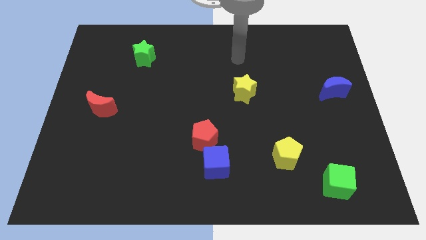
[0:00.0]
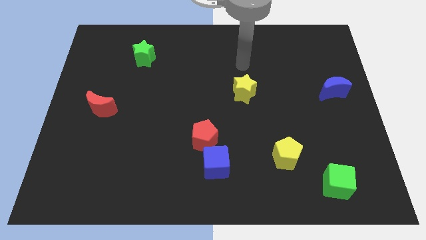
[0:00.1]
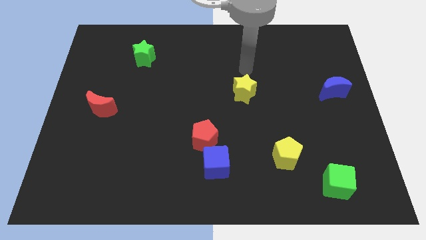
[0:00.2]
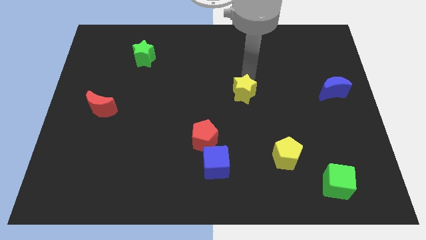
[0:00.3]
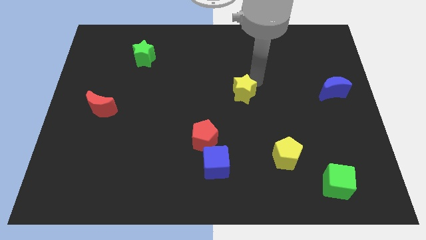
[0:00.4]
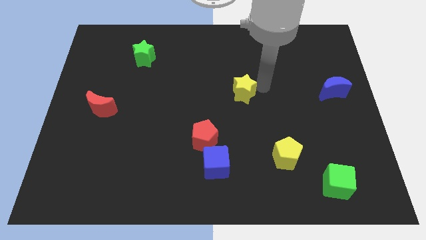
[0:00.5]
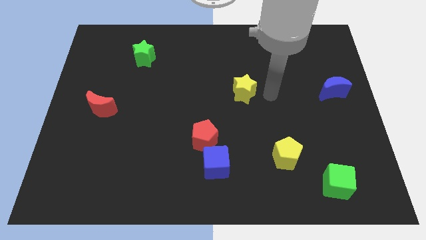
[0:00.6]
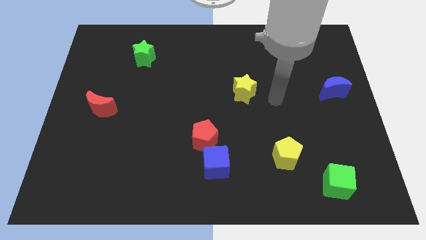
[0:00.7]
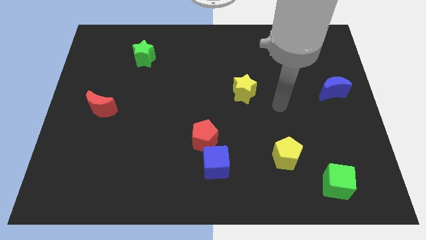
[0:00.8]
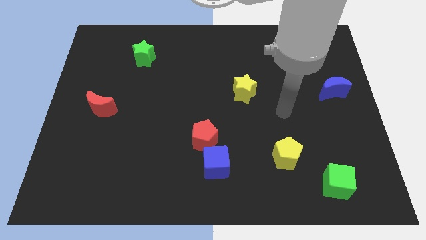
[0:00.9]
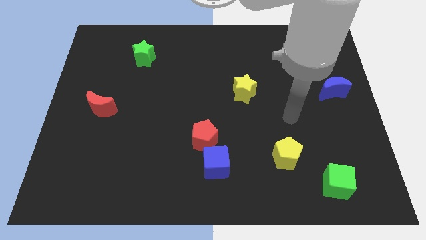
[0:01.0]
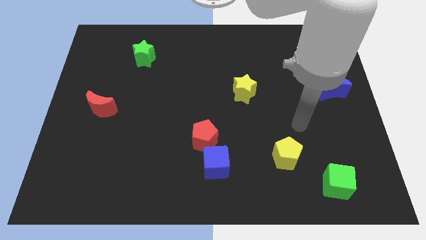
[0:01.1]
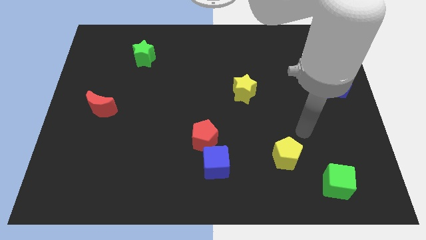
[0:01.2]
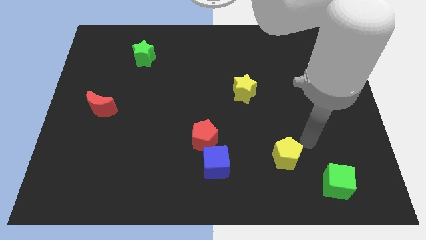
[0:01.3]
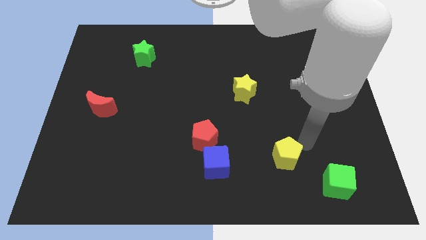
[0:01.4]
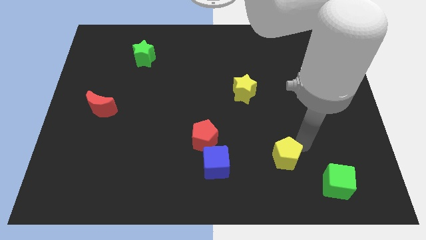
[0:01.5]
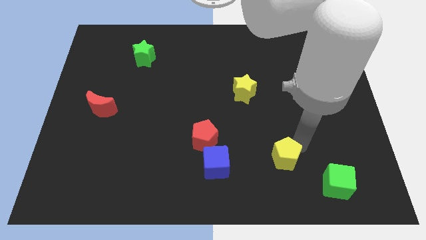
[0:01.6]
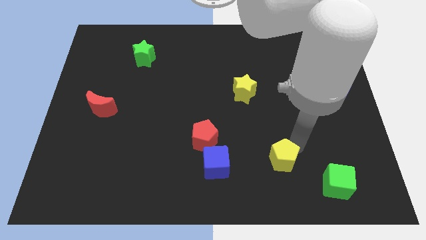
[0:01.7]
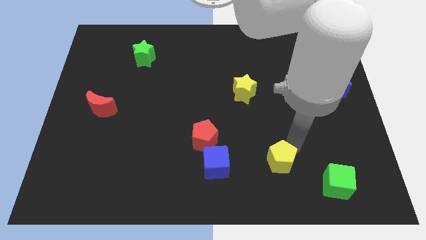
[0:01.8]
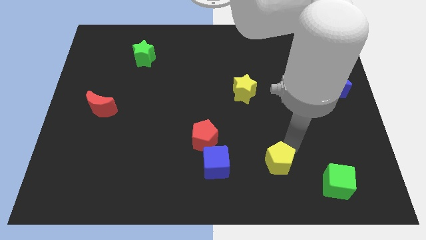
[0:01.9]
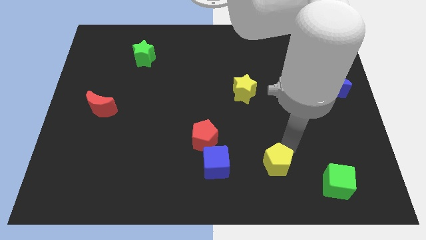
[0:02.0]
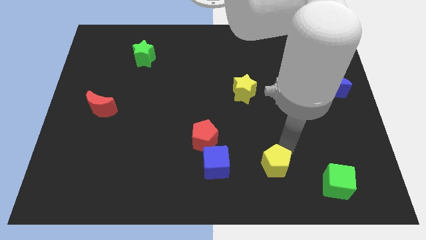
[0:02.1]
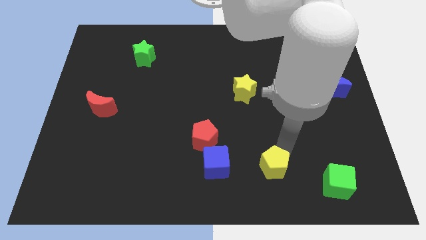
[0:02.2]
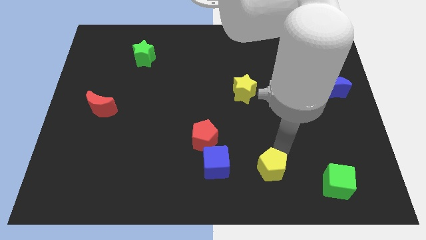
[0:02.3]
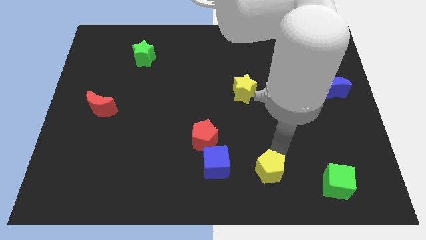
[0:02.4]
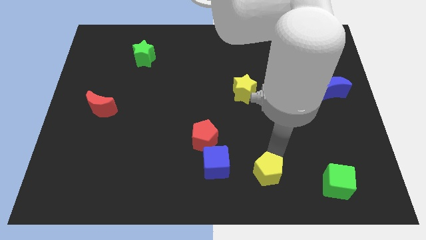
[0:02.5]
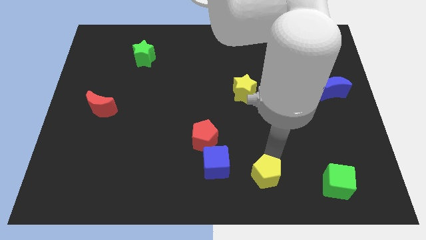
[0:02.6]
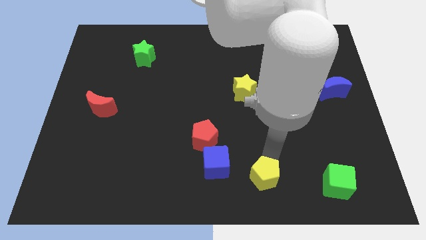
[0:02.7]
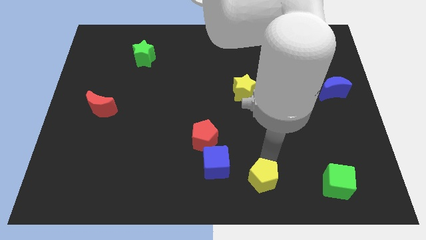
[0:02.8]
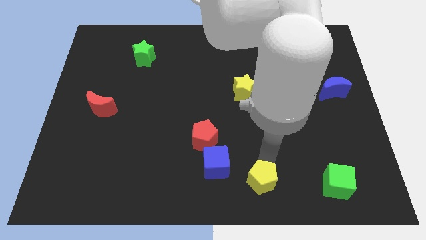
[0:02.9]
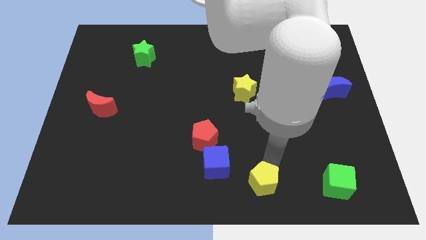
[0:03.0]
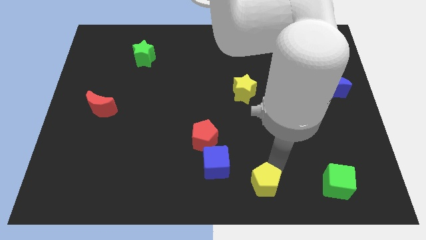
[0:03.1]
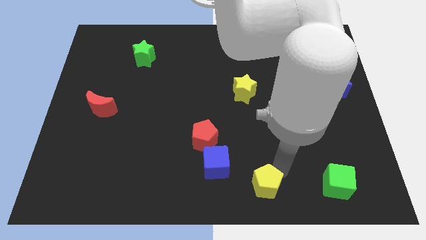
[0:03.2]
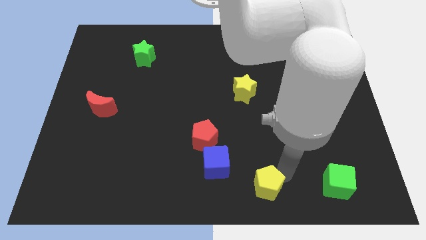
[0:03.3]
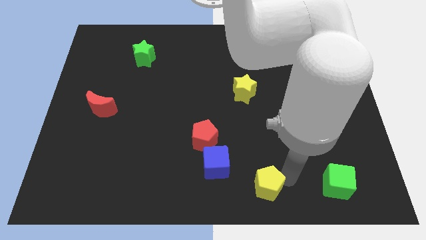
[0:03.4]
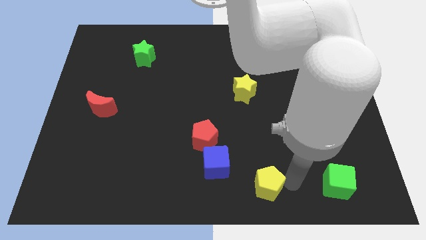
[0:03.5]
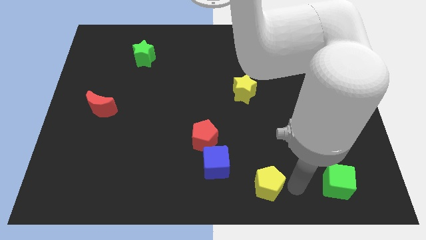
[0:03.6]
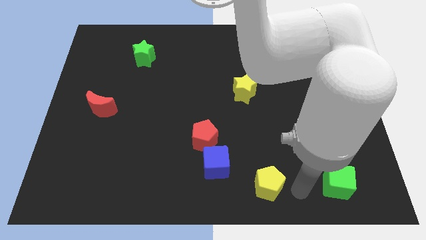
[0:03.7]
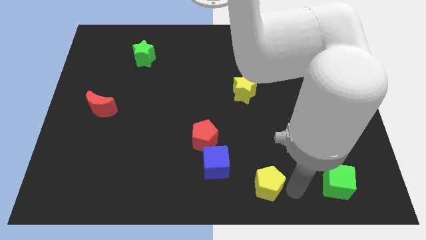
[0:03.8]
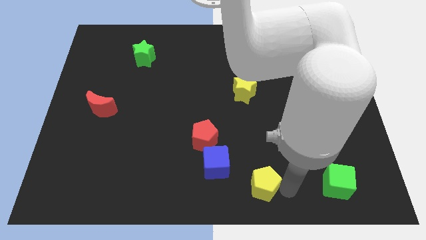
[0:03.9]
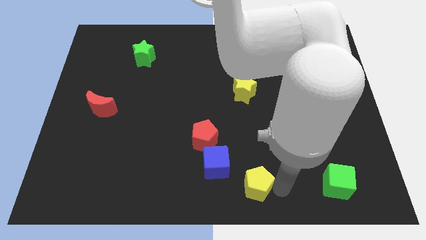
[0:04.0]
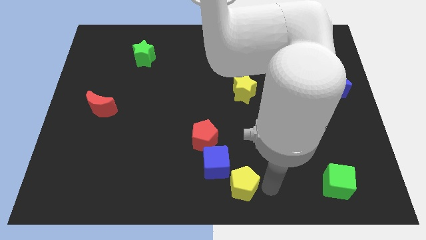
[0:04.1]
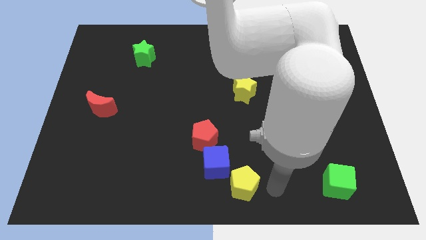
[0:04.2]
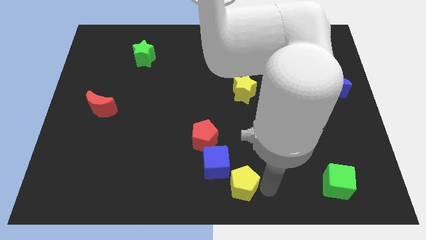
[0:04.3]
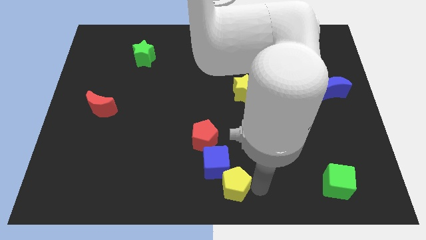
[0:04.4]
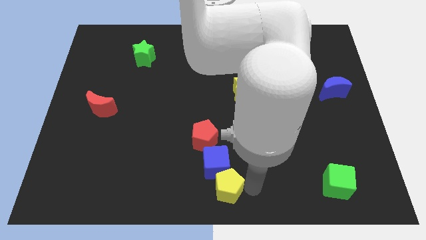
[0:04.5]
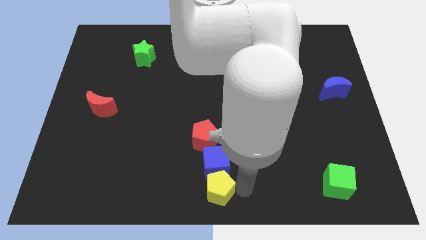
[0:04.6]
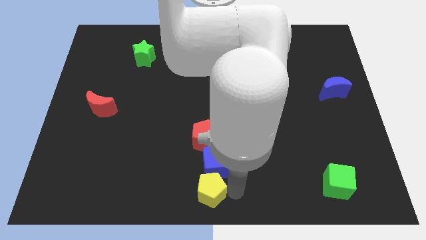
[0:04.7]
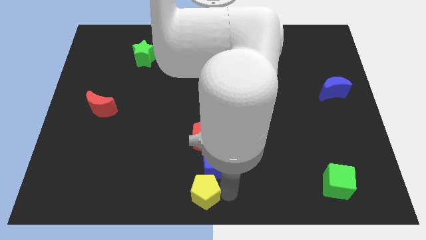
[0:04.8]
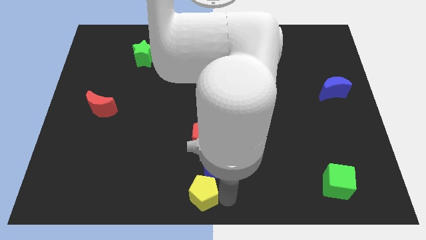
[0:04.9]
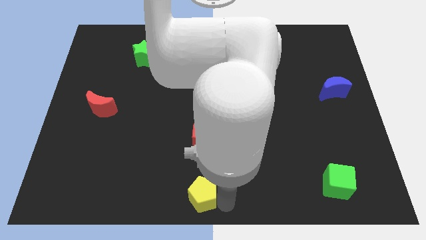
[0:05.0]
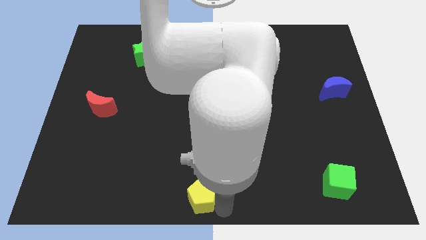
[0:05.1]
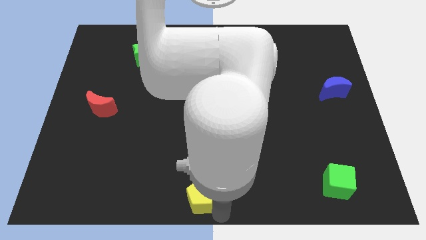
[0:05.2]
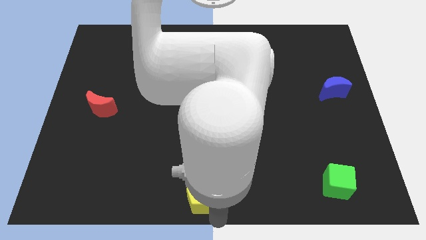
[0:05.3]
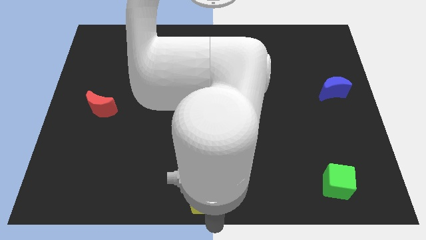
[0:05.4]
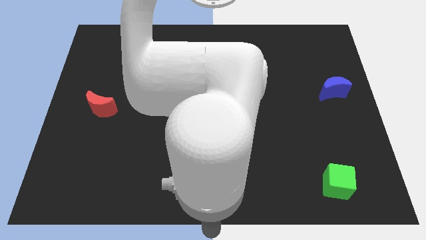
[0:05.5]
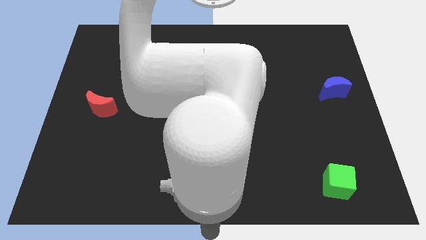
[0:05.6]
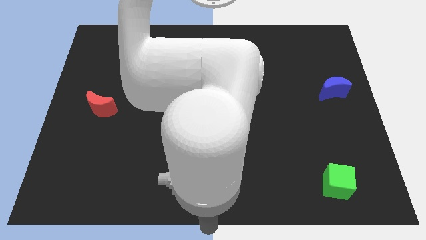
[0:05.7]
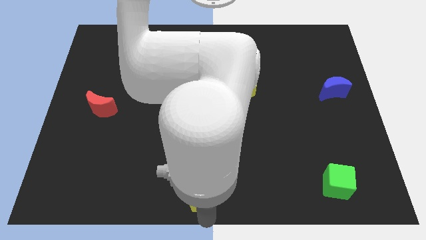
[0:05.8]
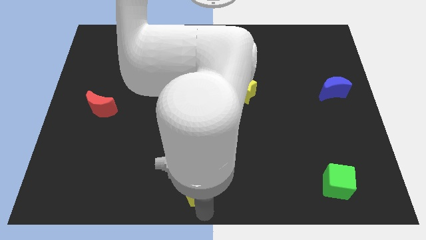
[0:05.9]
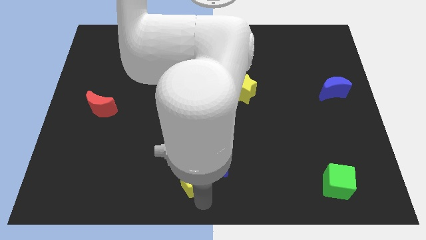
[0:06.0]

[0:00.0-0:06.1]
push the yellow pentagon just left of the blue cube

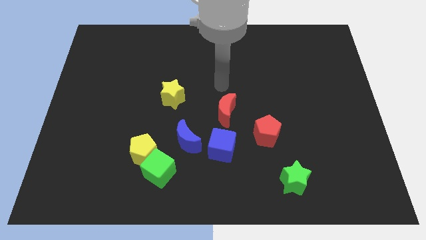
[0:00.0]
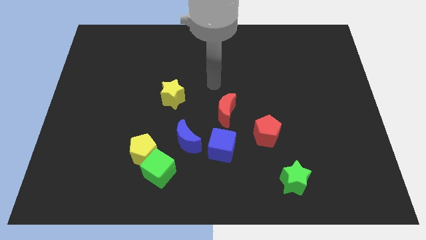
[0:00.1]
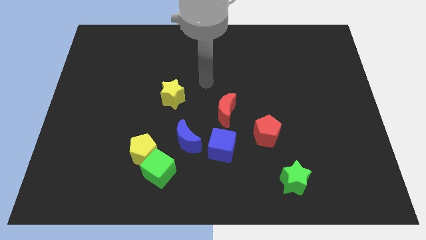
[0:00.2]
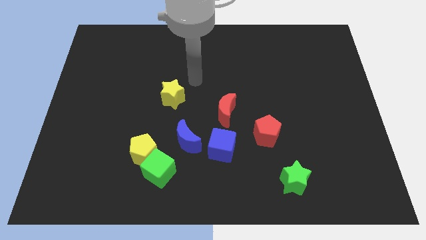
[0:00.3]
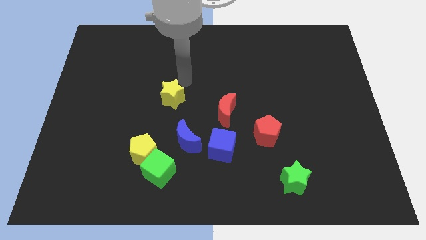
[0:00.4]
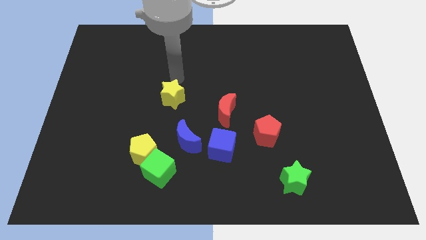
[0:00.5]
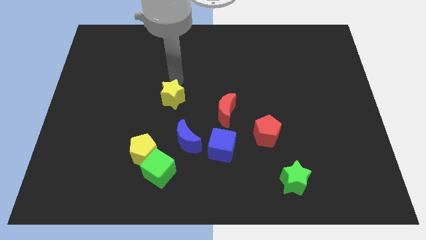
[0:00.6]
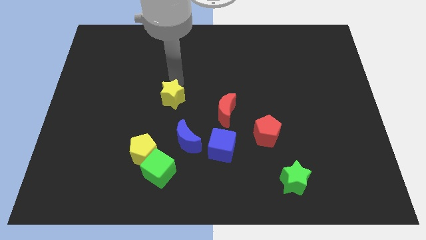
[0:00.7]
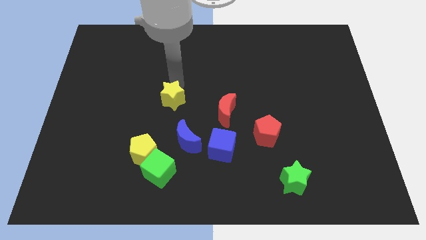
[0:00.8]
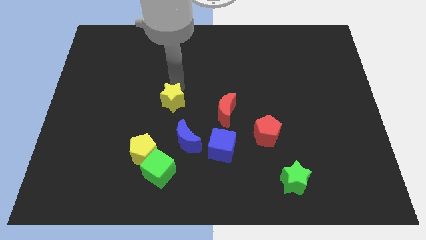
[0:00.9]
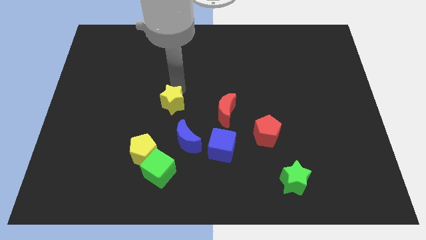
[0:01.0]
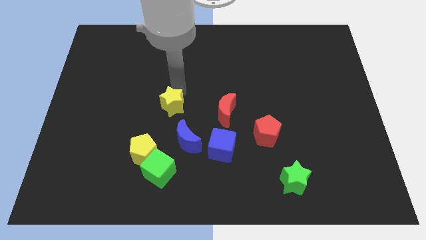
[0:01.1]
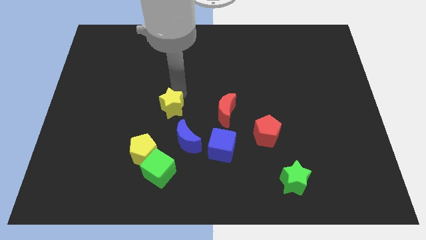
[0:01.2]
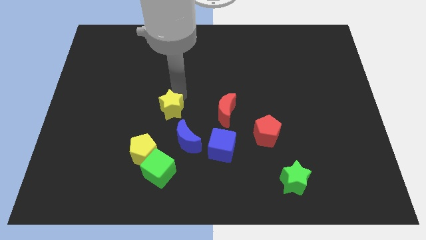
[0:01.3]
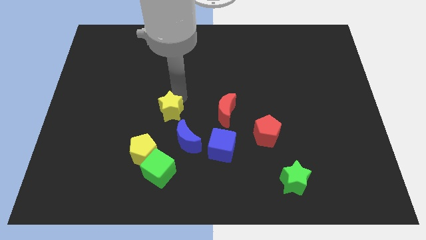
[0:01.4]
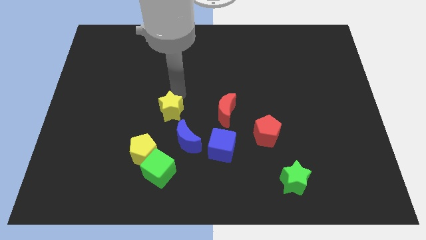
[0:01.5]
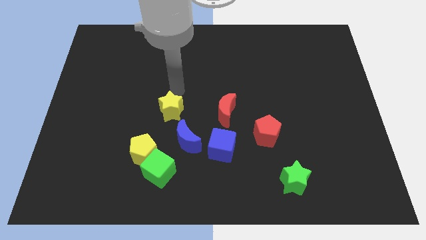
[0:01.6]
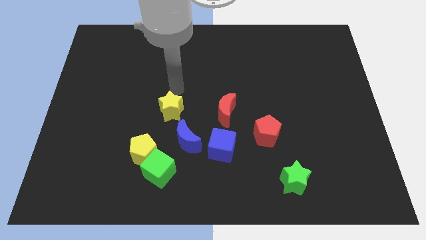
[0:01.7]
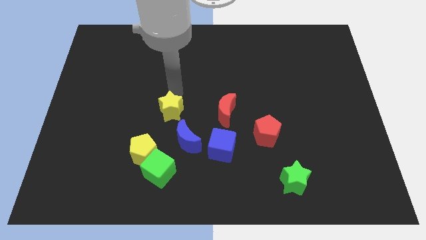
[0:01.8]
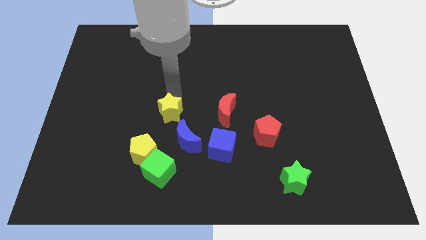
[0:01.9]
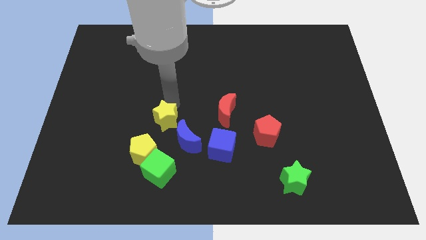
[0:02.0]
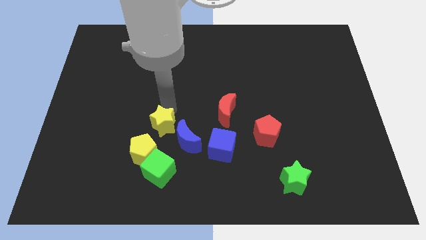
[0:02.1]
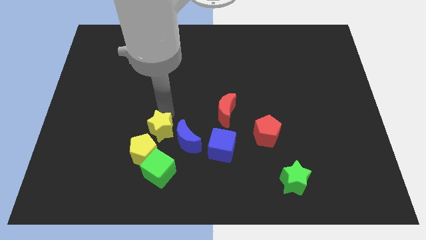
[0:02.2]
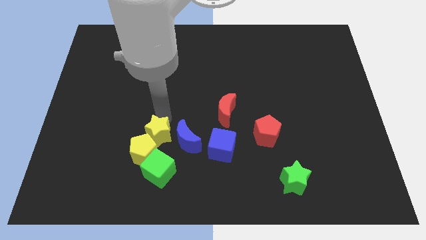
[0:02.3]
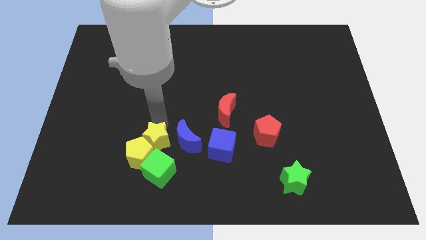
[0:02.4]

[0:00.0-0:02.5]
put the yellow star just right of the yellow pentagon
